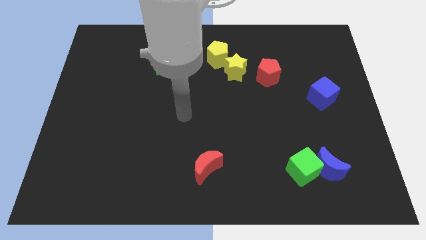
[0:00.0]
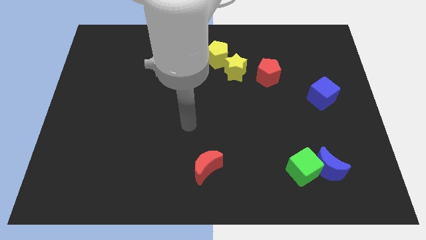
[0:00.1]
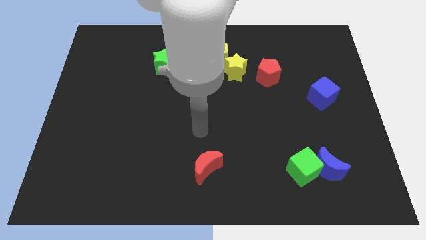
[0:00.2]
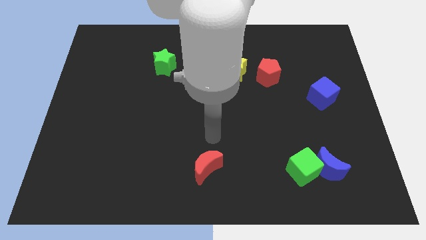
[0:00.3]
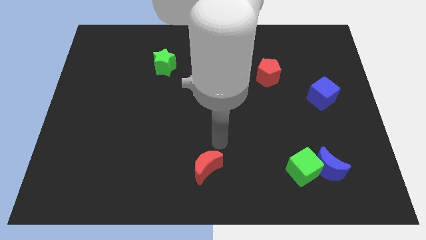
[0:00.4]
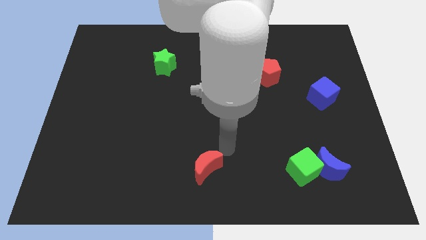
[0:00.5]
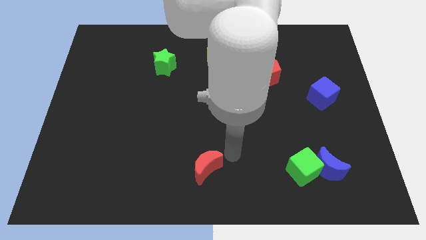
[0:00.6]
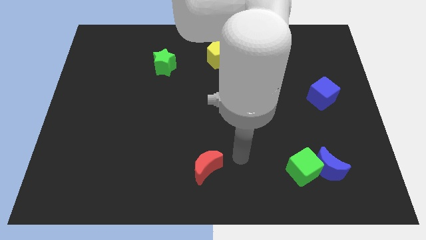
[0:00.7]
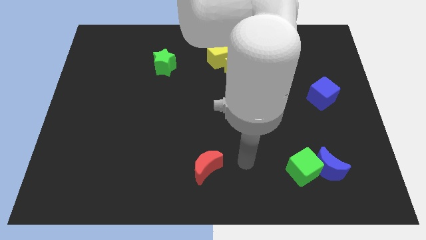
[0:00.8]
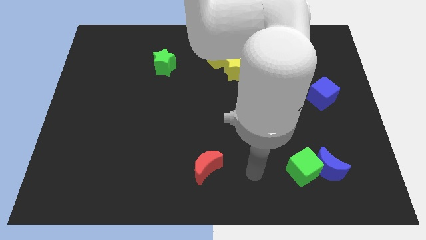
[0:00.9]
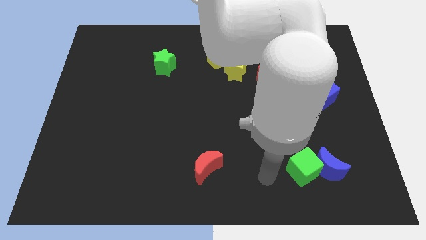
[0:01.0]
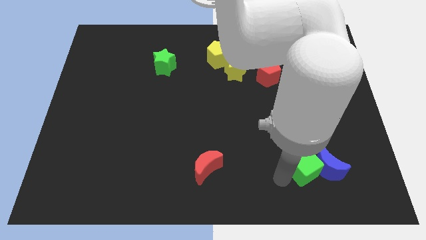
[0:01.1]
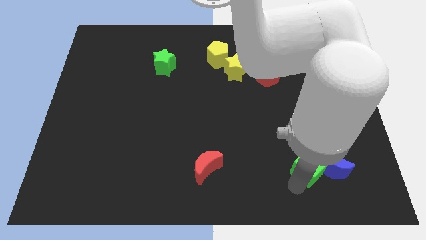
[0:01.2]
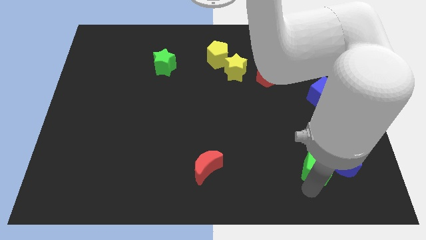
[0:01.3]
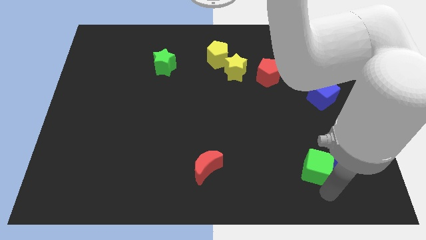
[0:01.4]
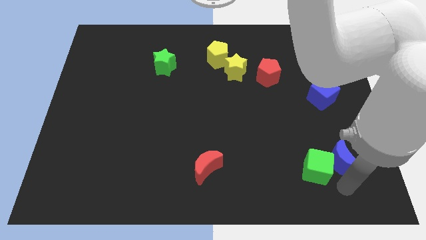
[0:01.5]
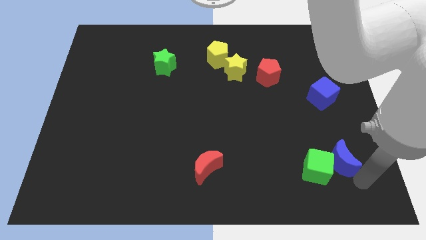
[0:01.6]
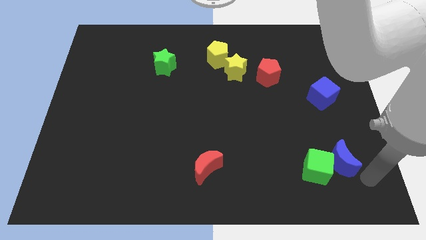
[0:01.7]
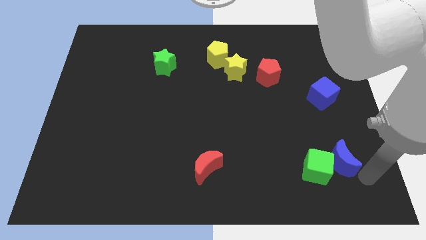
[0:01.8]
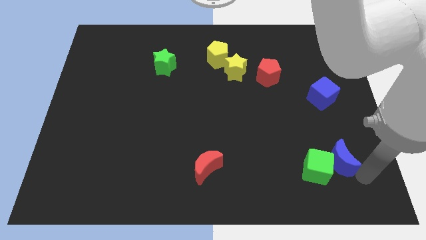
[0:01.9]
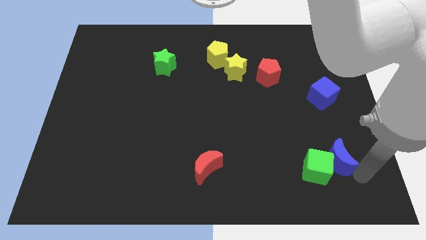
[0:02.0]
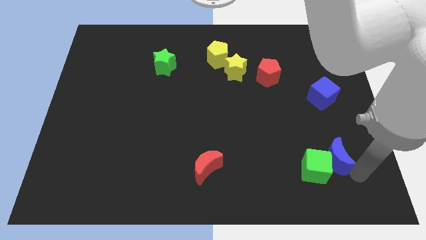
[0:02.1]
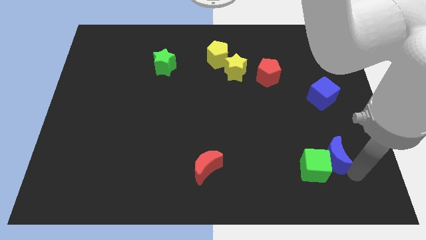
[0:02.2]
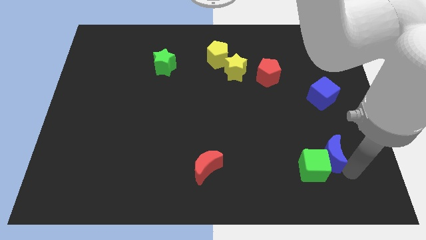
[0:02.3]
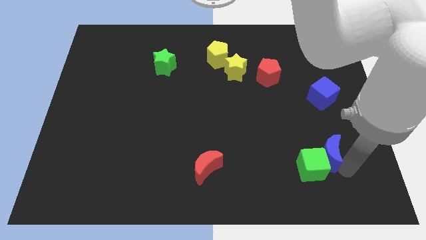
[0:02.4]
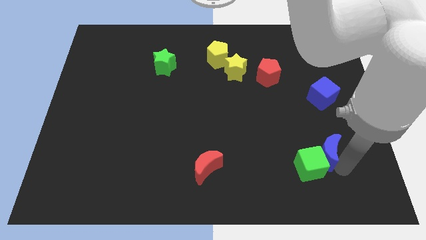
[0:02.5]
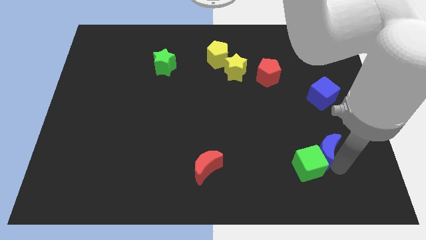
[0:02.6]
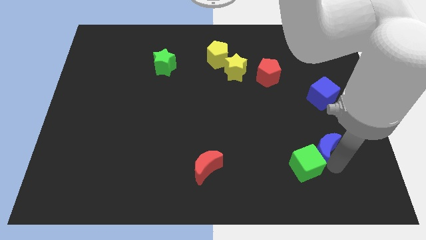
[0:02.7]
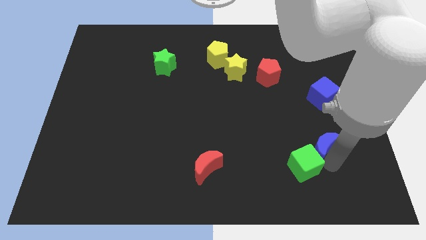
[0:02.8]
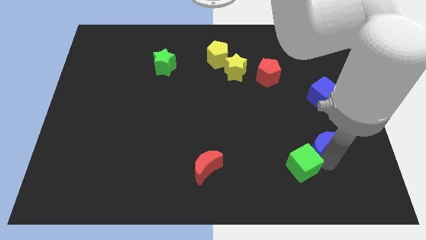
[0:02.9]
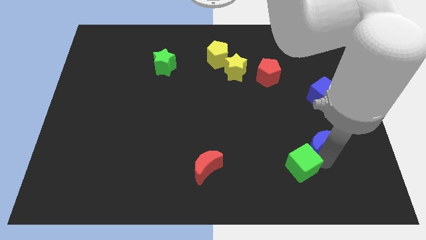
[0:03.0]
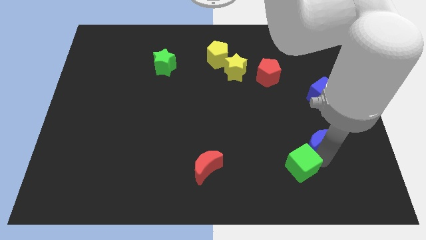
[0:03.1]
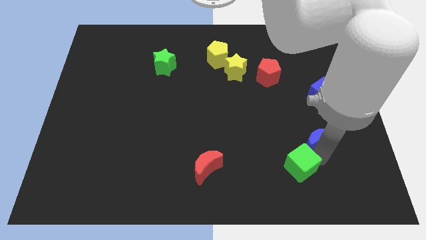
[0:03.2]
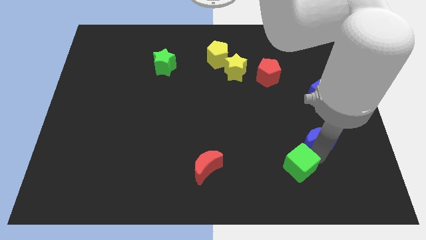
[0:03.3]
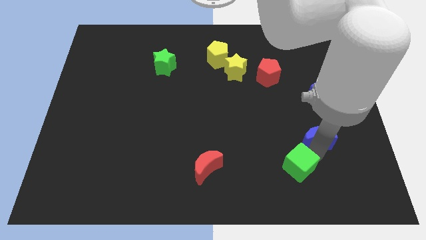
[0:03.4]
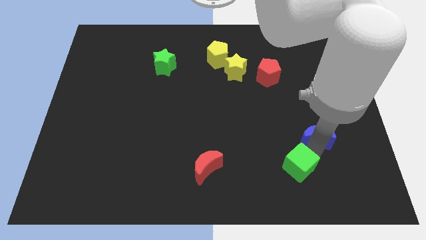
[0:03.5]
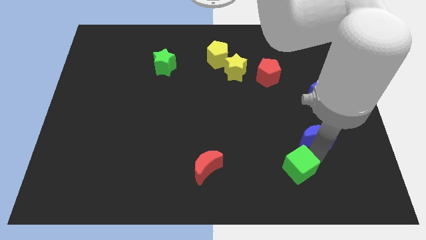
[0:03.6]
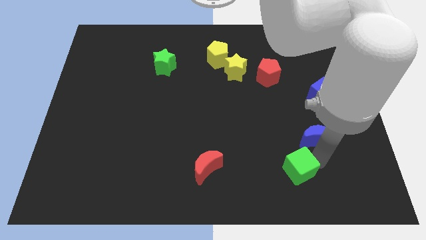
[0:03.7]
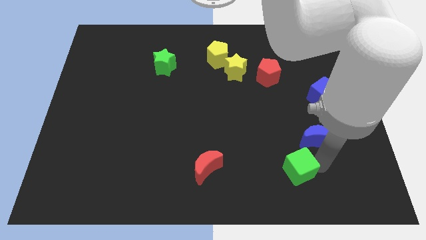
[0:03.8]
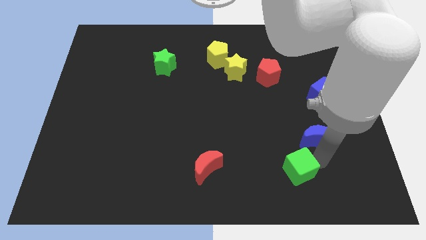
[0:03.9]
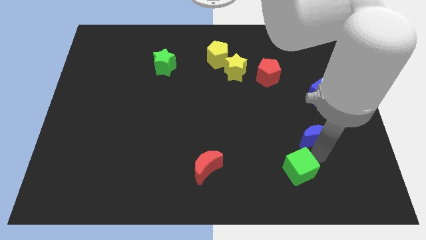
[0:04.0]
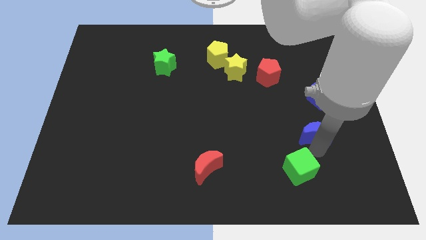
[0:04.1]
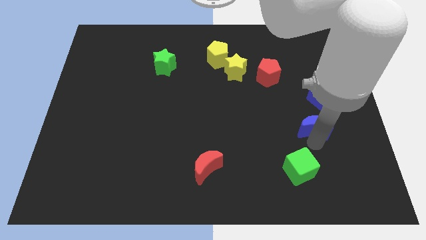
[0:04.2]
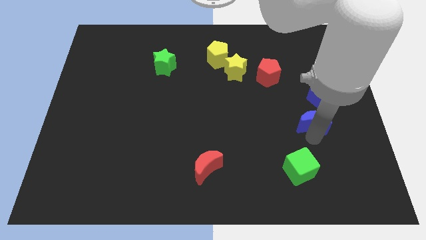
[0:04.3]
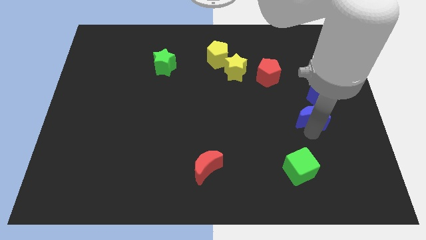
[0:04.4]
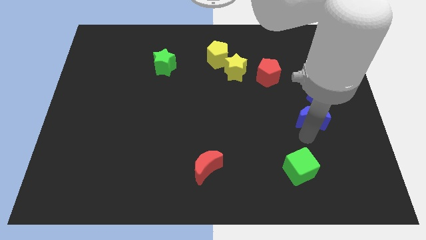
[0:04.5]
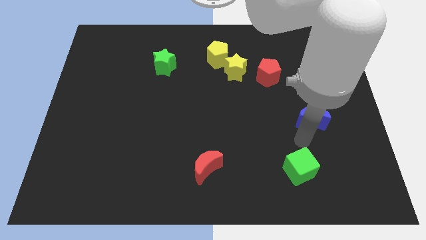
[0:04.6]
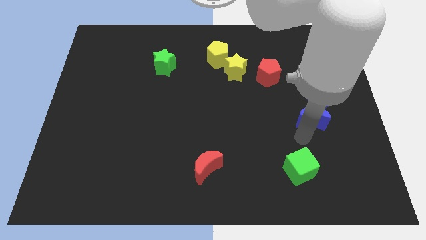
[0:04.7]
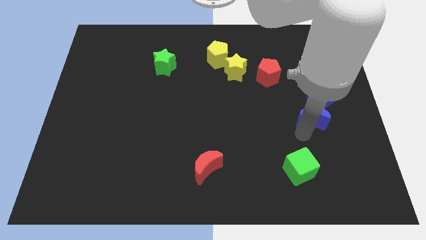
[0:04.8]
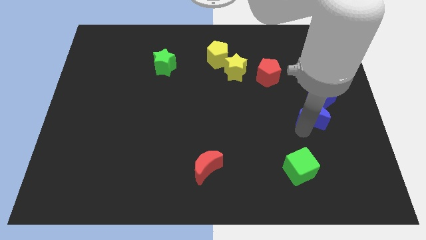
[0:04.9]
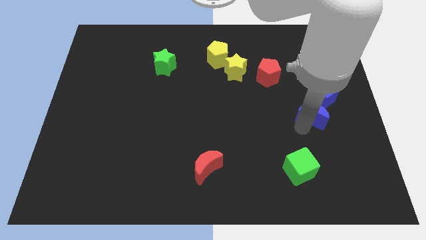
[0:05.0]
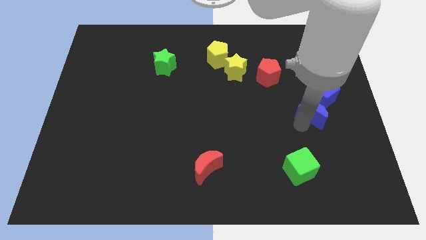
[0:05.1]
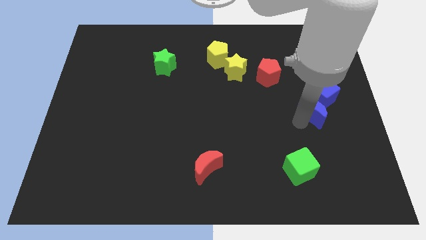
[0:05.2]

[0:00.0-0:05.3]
move the blue moon to the blue cube

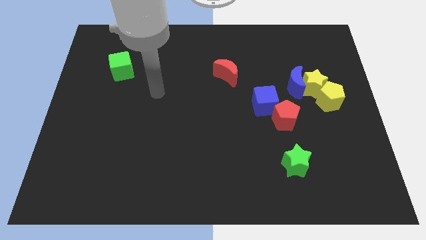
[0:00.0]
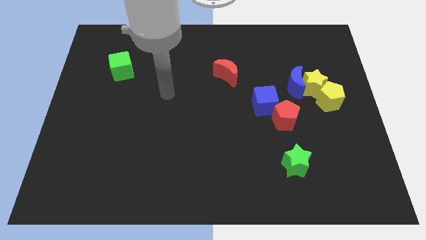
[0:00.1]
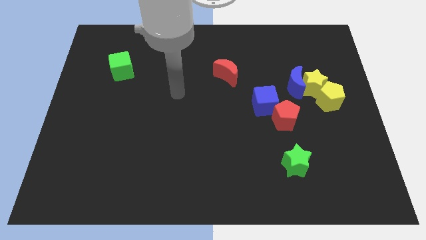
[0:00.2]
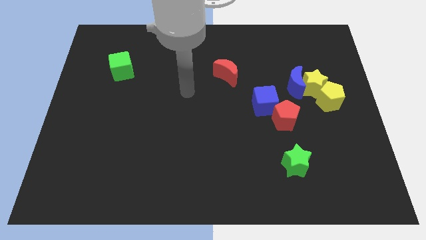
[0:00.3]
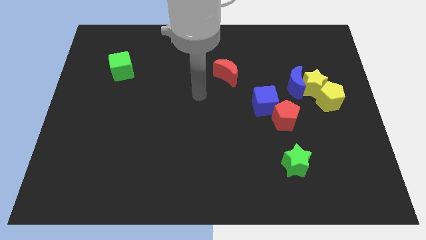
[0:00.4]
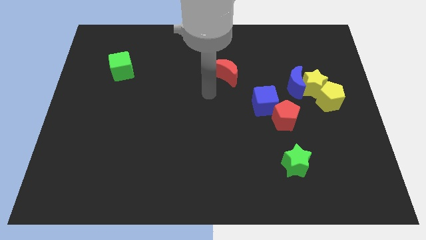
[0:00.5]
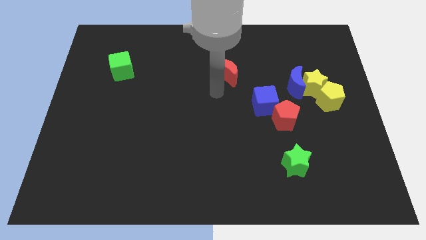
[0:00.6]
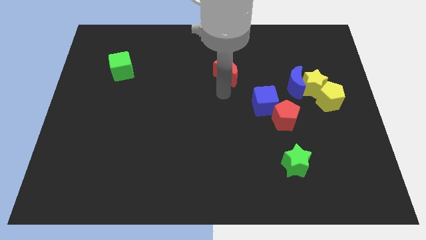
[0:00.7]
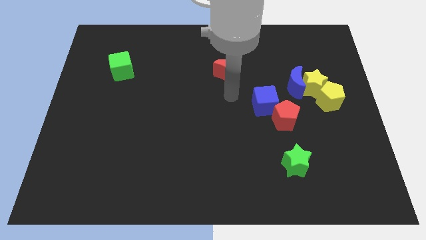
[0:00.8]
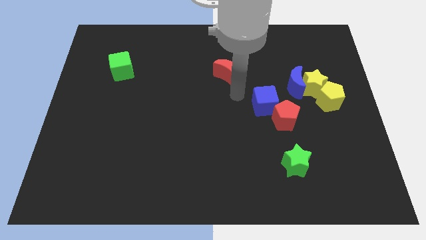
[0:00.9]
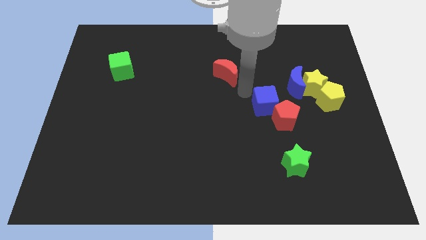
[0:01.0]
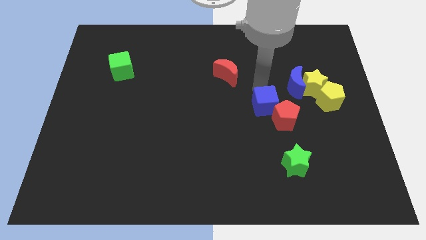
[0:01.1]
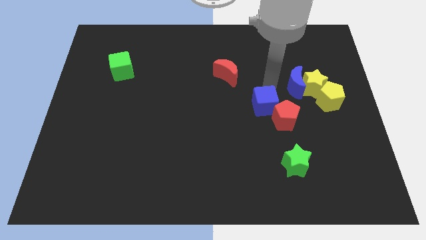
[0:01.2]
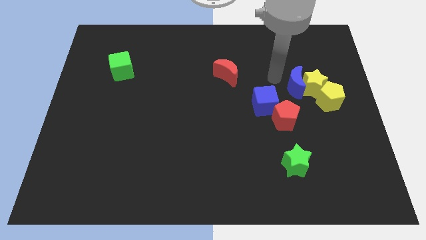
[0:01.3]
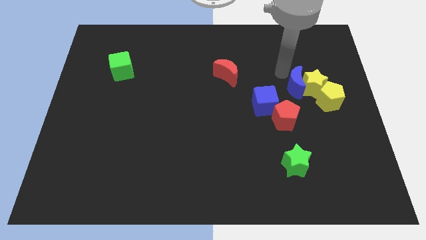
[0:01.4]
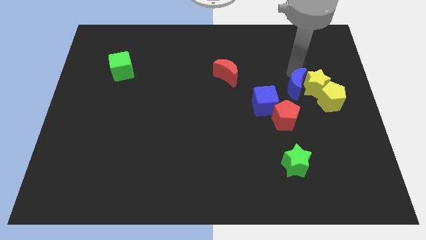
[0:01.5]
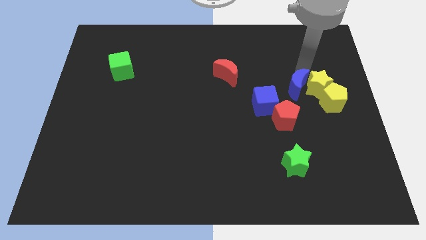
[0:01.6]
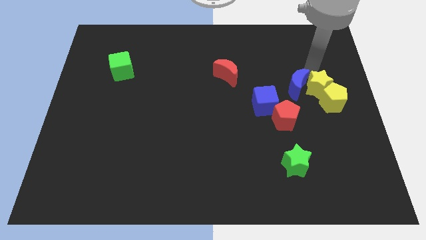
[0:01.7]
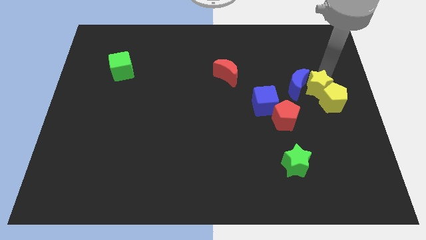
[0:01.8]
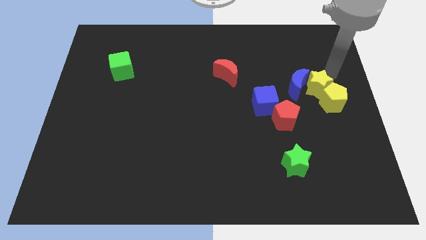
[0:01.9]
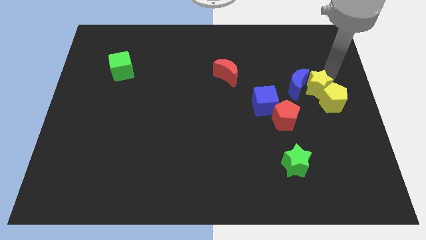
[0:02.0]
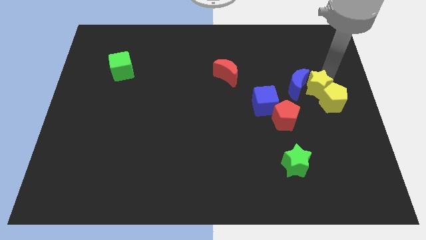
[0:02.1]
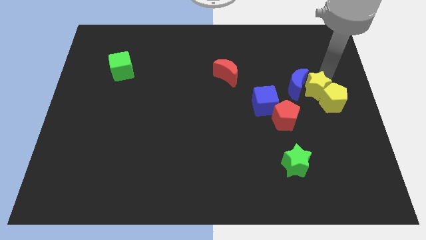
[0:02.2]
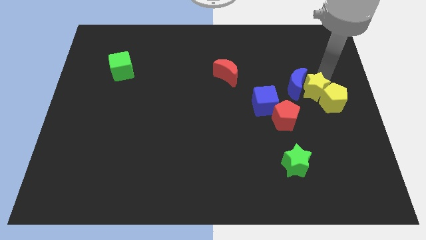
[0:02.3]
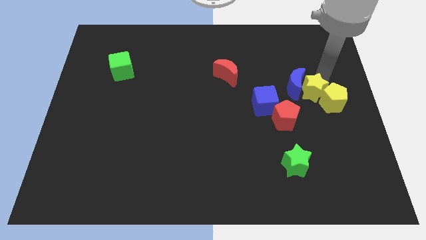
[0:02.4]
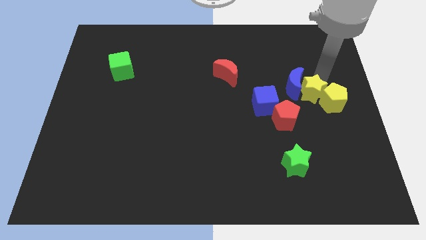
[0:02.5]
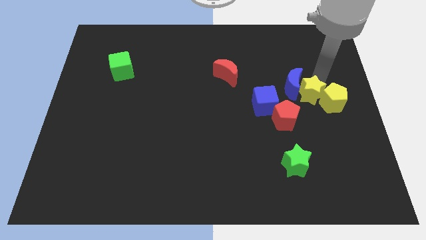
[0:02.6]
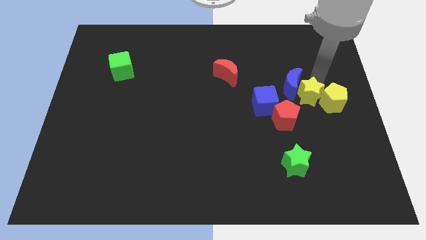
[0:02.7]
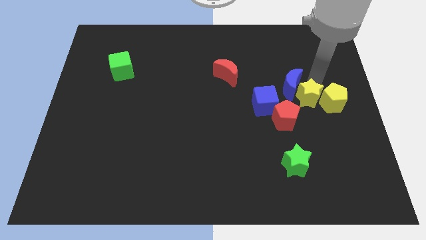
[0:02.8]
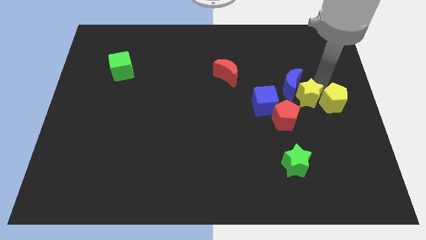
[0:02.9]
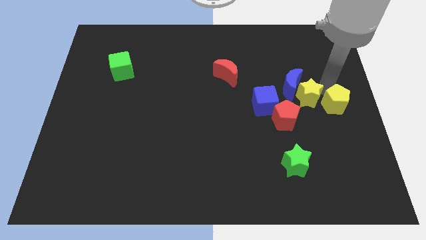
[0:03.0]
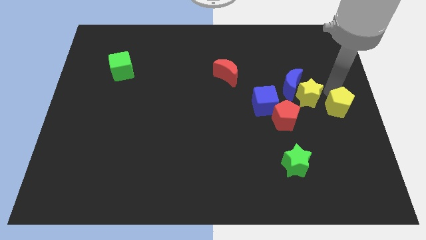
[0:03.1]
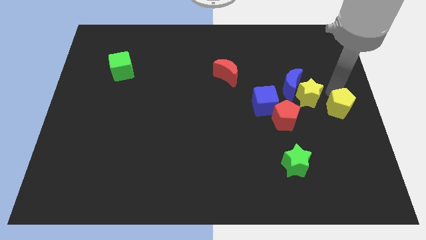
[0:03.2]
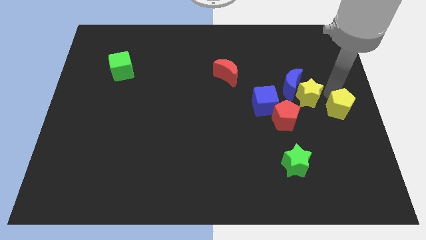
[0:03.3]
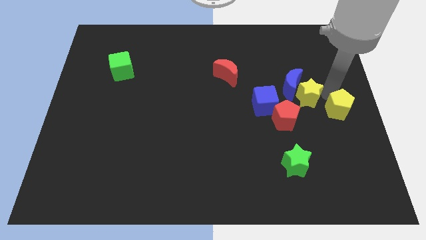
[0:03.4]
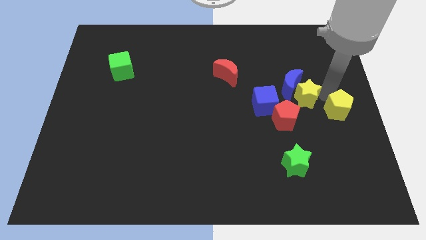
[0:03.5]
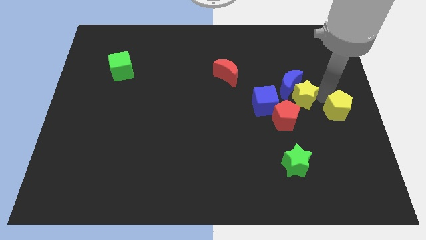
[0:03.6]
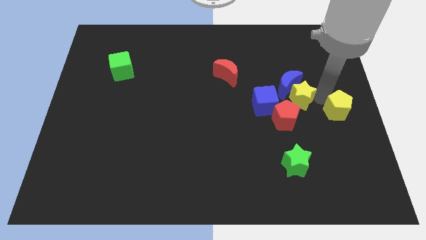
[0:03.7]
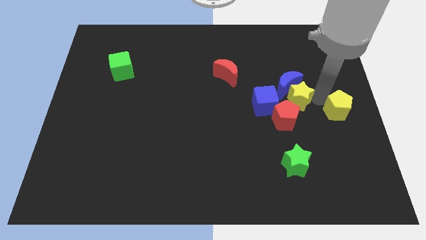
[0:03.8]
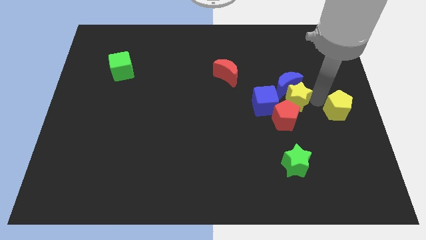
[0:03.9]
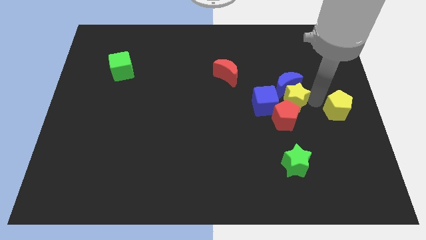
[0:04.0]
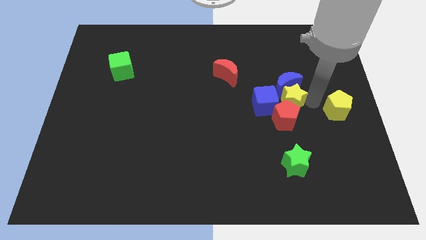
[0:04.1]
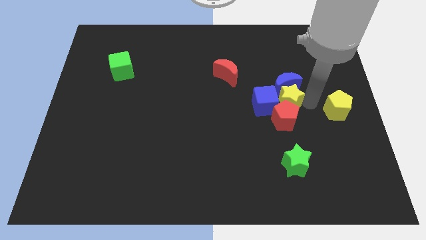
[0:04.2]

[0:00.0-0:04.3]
put the yellow star next to the blue cube
